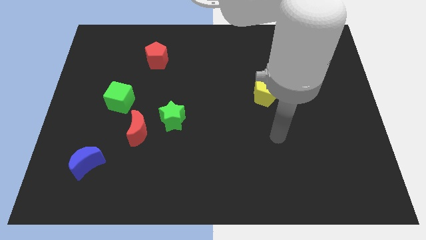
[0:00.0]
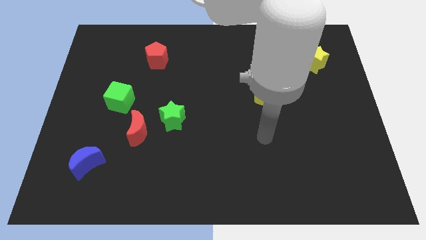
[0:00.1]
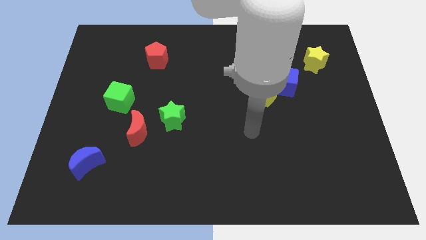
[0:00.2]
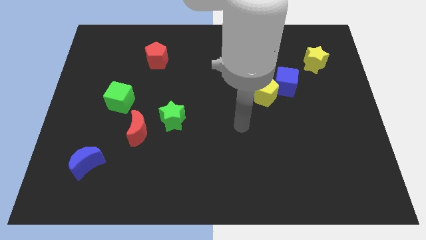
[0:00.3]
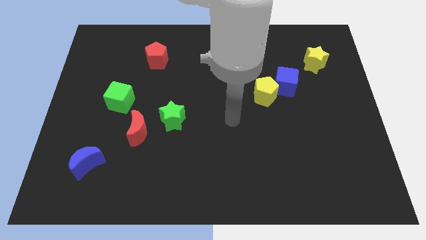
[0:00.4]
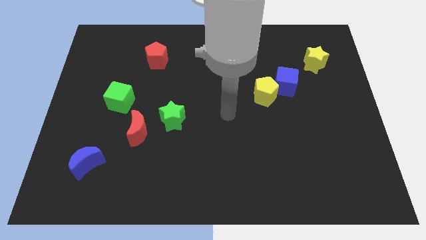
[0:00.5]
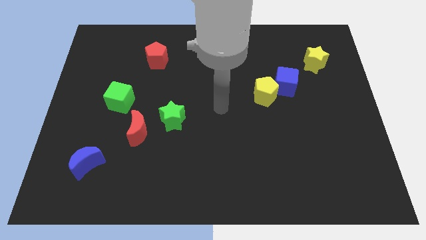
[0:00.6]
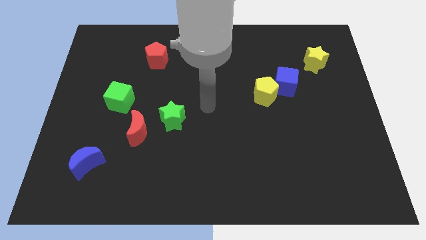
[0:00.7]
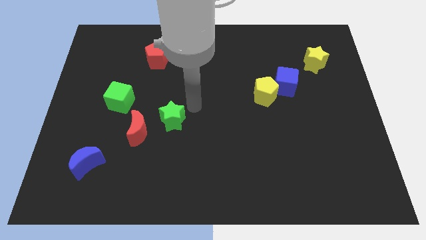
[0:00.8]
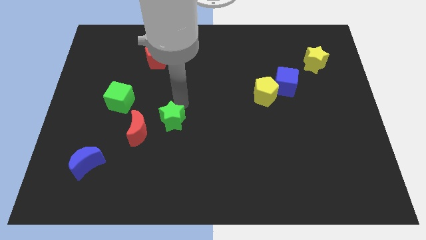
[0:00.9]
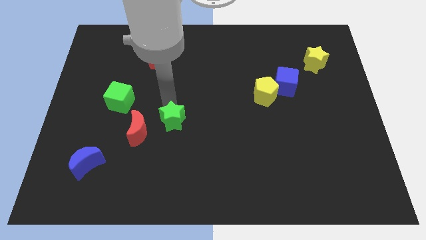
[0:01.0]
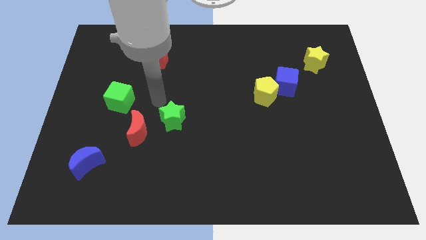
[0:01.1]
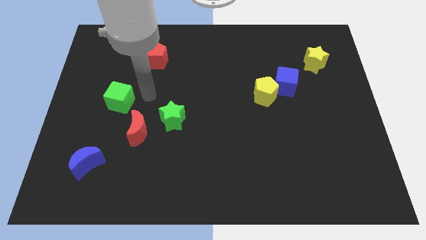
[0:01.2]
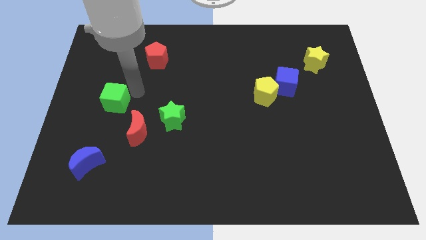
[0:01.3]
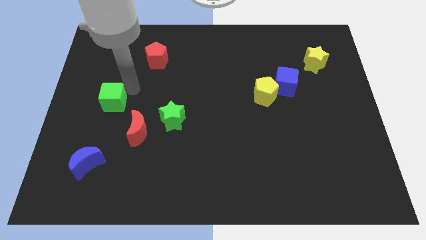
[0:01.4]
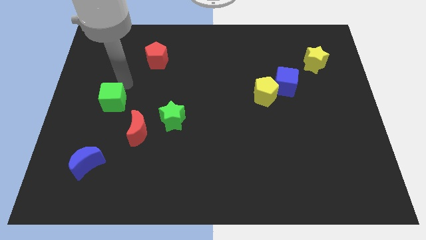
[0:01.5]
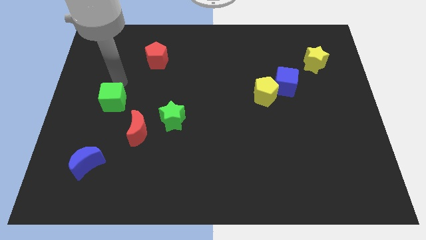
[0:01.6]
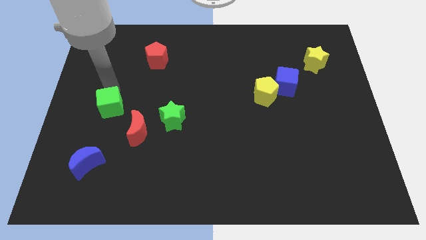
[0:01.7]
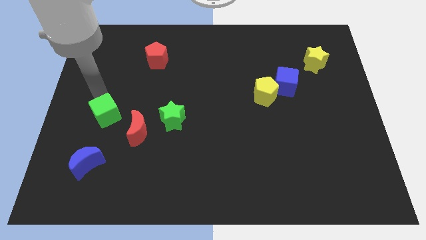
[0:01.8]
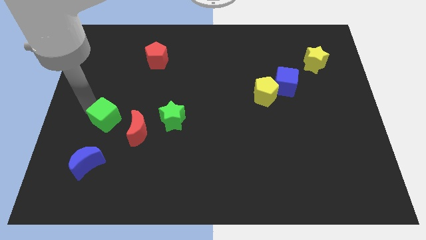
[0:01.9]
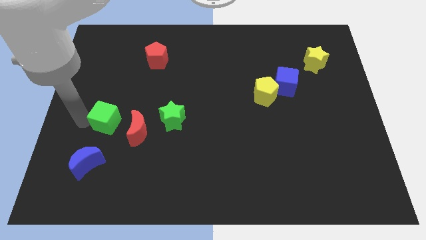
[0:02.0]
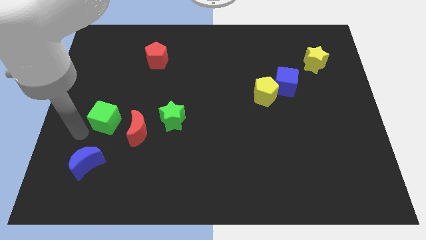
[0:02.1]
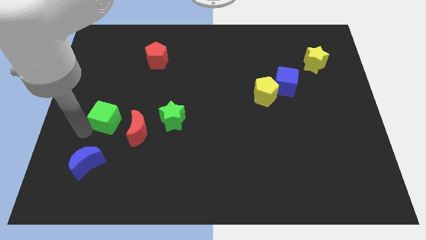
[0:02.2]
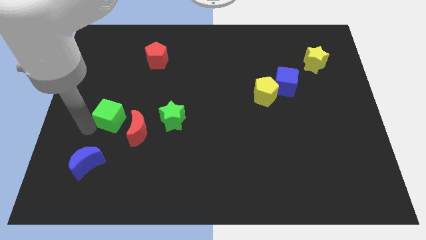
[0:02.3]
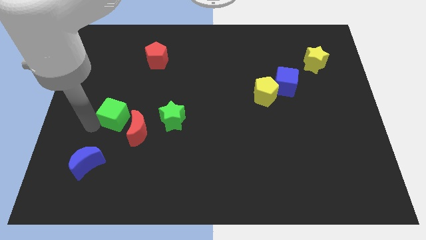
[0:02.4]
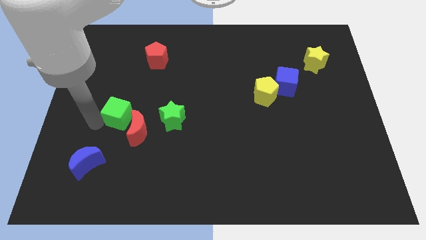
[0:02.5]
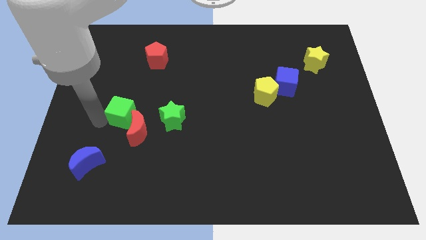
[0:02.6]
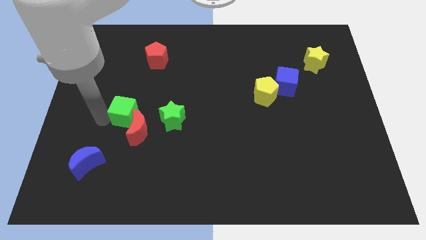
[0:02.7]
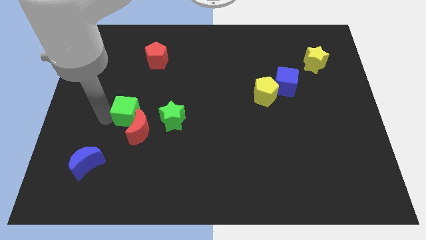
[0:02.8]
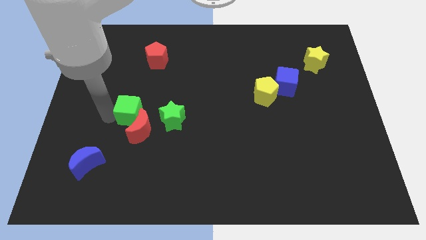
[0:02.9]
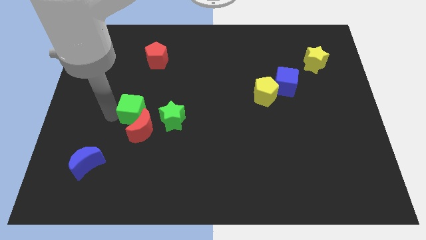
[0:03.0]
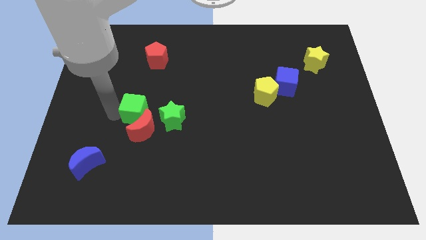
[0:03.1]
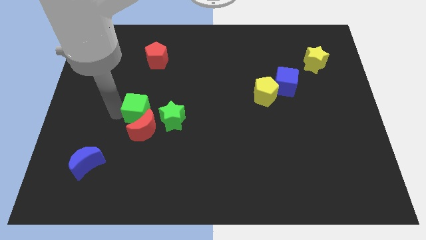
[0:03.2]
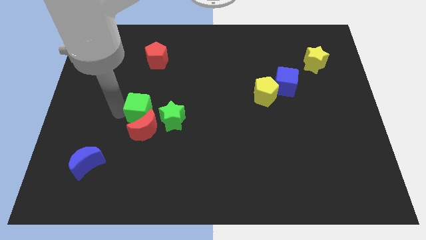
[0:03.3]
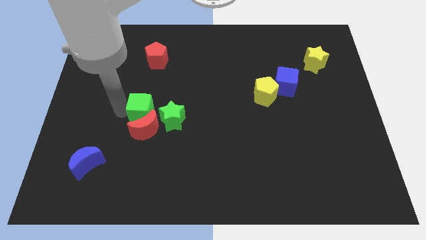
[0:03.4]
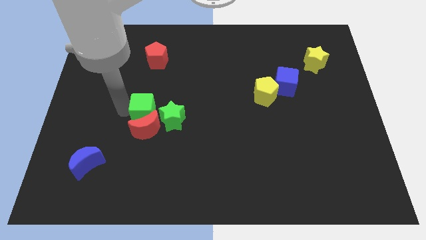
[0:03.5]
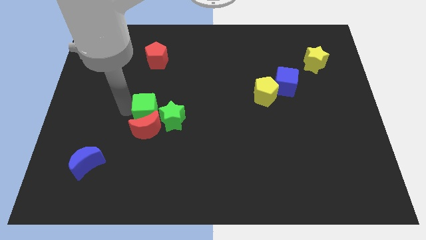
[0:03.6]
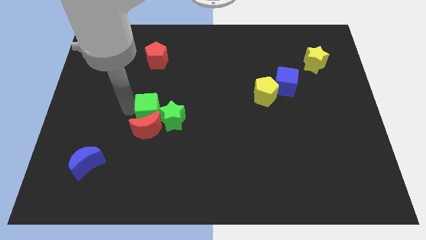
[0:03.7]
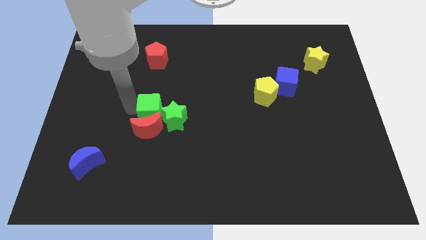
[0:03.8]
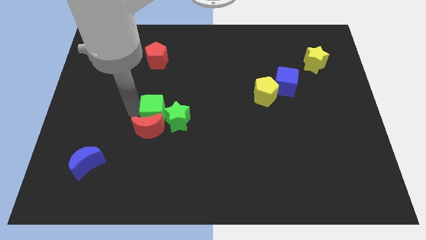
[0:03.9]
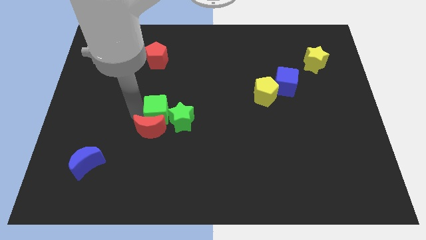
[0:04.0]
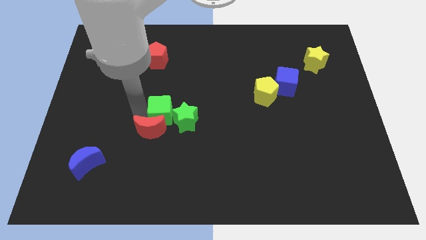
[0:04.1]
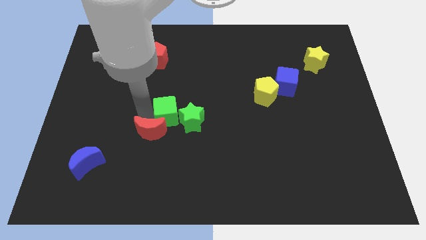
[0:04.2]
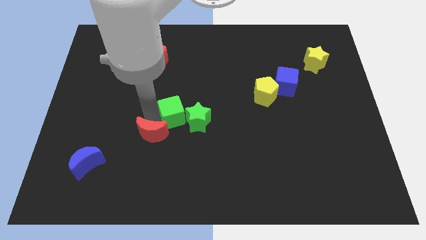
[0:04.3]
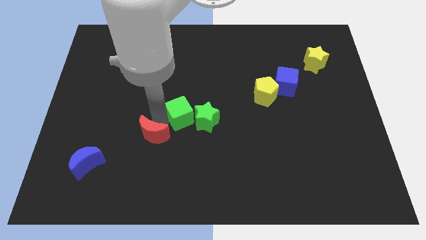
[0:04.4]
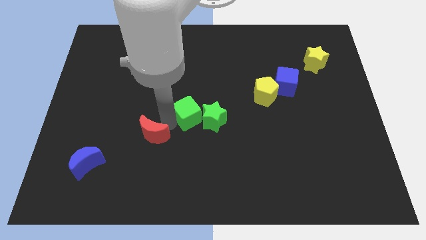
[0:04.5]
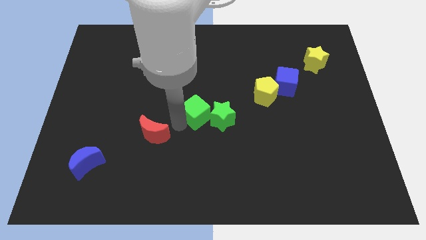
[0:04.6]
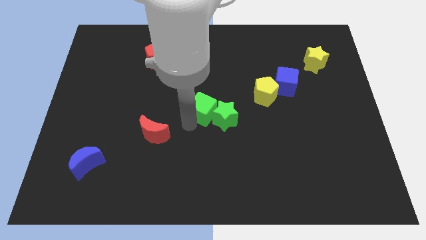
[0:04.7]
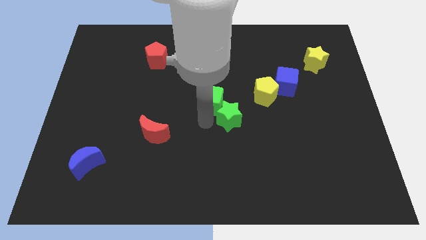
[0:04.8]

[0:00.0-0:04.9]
push the green cube just left of the yellow pentagon

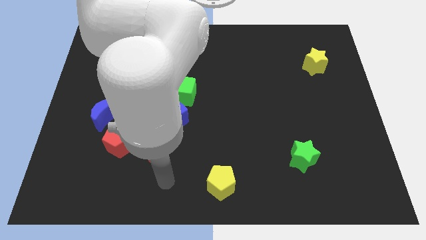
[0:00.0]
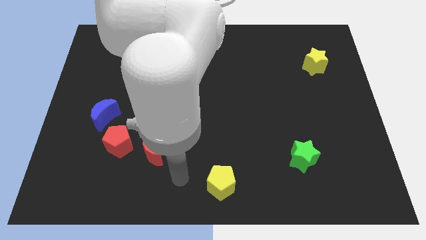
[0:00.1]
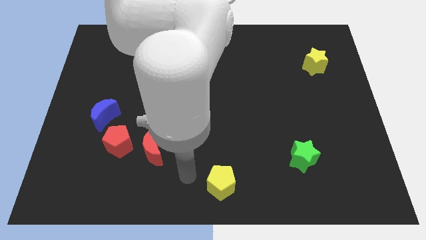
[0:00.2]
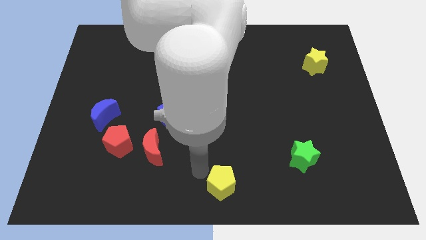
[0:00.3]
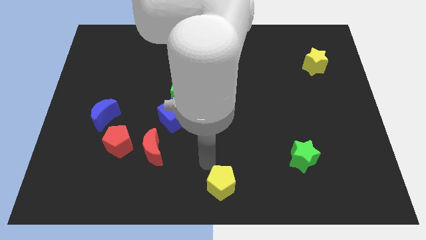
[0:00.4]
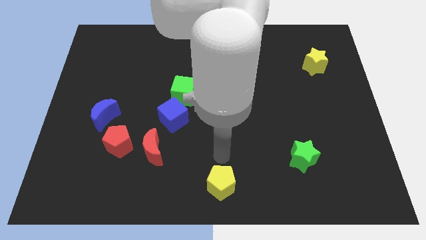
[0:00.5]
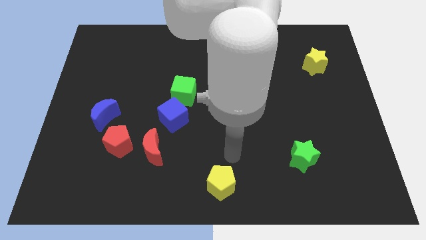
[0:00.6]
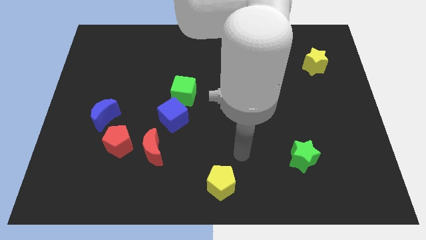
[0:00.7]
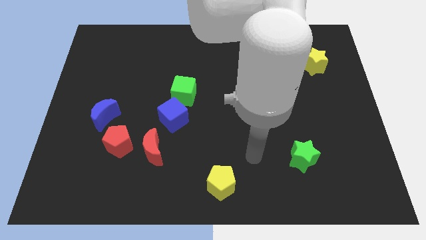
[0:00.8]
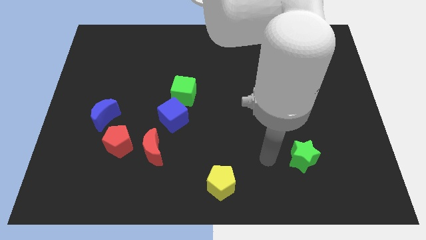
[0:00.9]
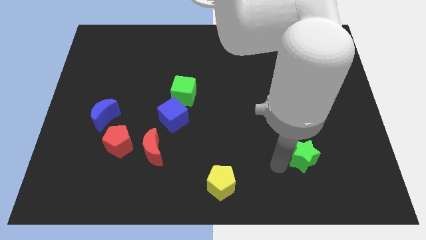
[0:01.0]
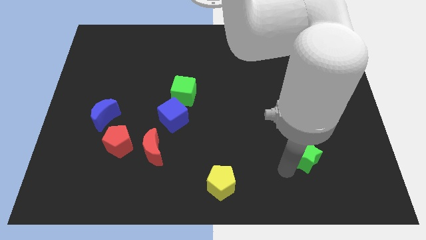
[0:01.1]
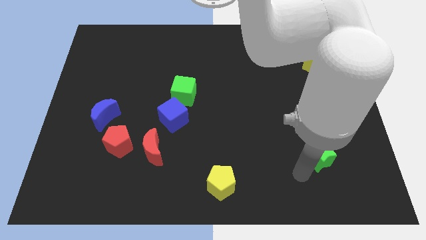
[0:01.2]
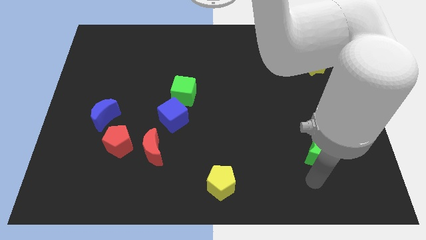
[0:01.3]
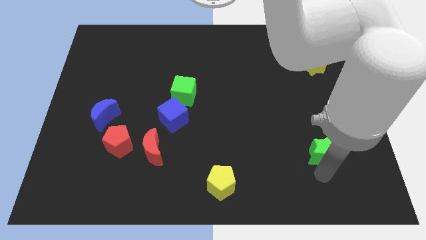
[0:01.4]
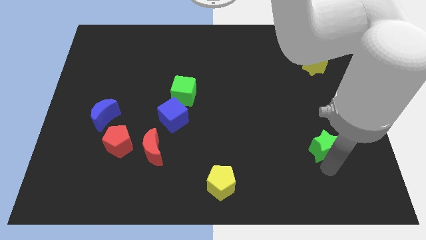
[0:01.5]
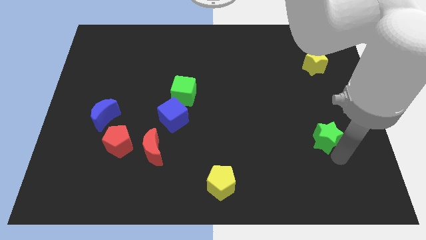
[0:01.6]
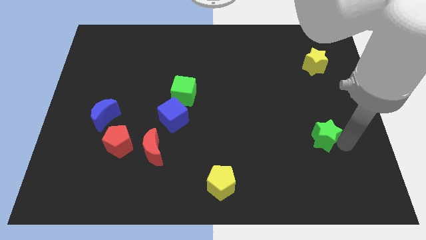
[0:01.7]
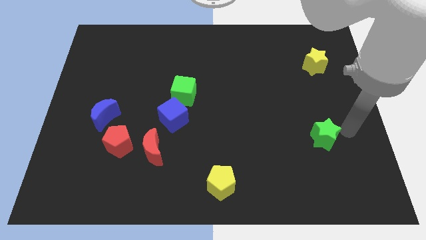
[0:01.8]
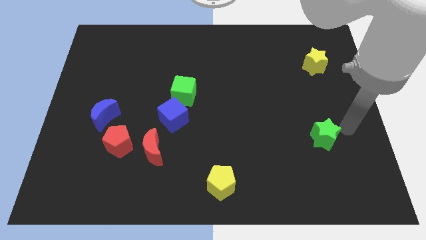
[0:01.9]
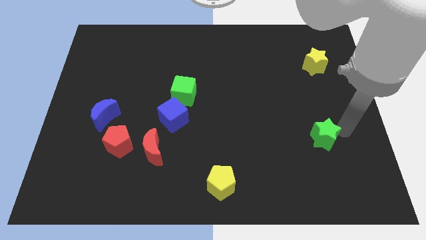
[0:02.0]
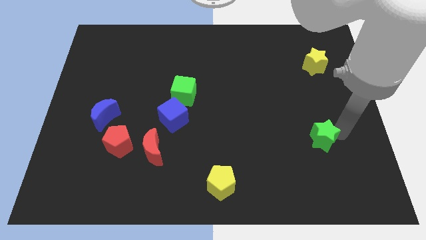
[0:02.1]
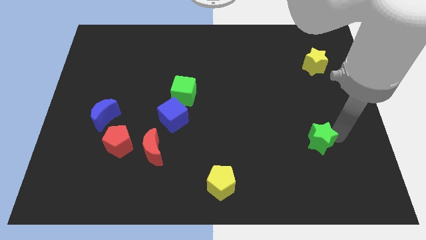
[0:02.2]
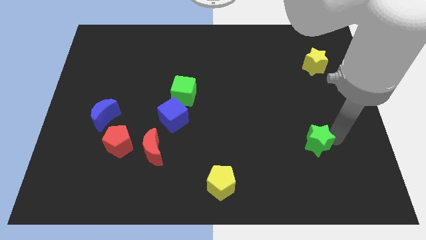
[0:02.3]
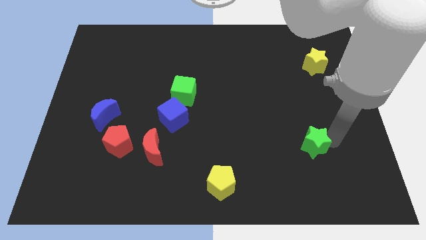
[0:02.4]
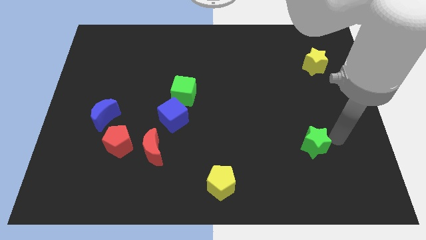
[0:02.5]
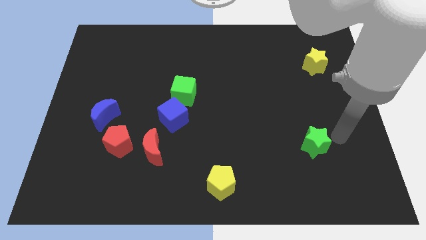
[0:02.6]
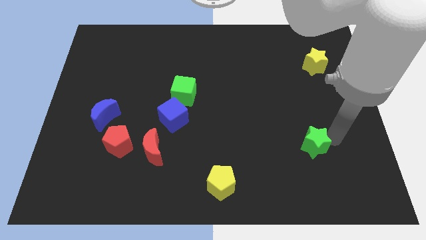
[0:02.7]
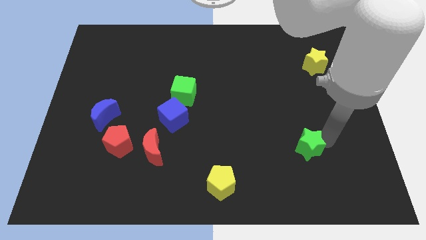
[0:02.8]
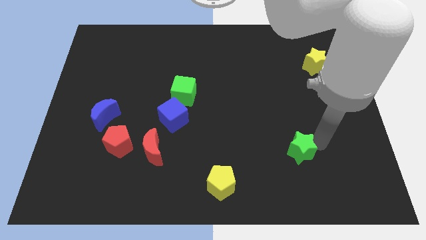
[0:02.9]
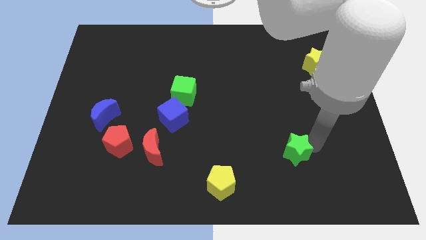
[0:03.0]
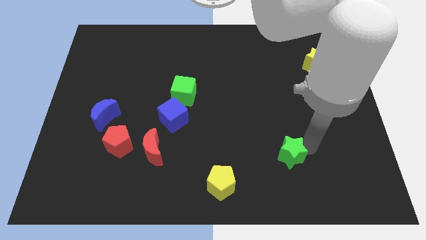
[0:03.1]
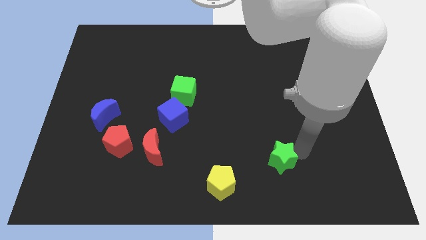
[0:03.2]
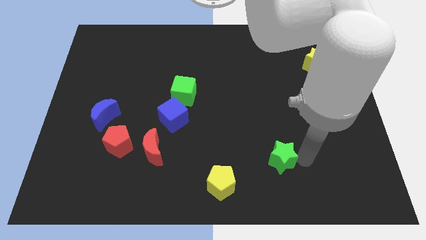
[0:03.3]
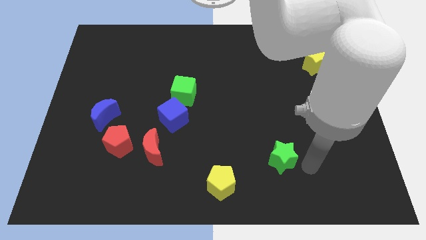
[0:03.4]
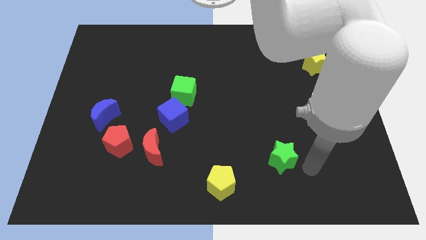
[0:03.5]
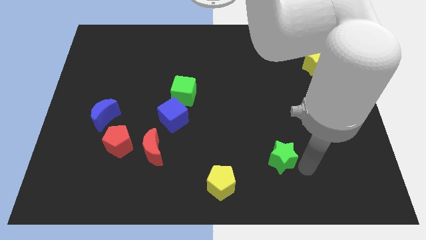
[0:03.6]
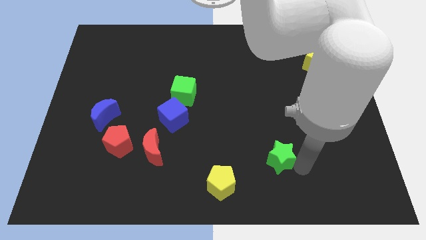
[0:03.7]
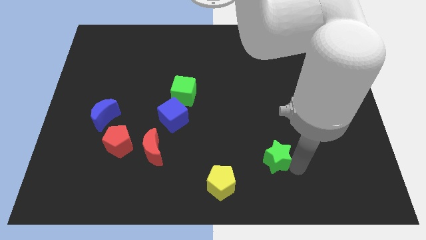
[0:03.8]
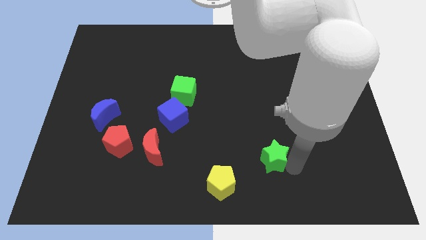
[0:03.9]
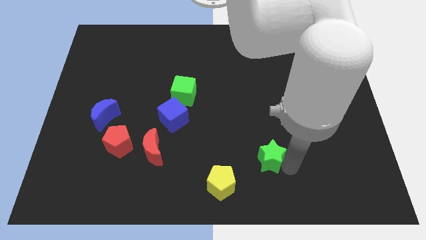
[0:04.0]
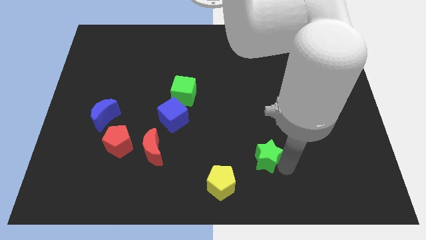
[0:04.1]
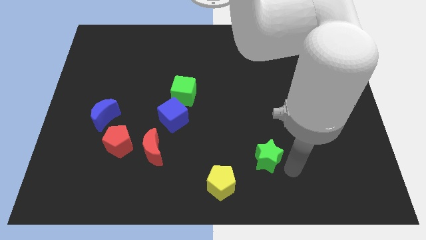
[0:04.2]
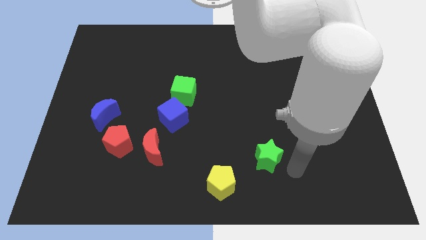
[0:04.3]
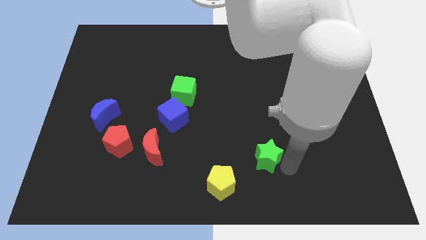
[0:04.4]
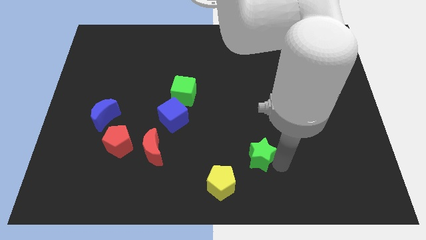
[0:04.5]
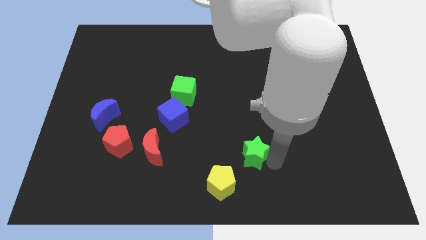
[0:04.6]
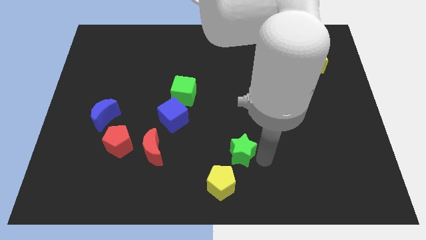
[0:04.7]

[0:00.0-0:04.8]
put the green star above the yellow pentagon
